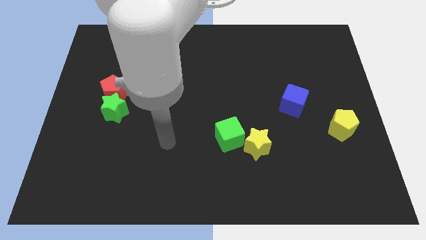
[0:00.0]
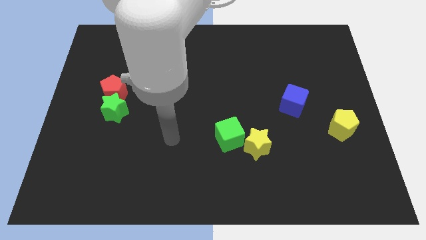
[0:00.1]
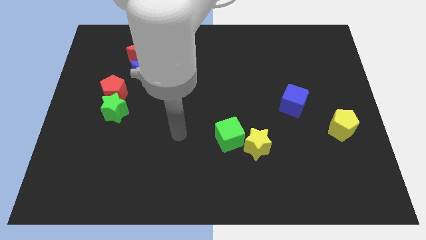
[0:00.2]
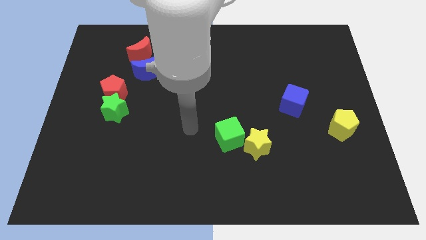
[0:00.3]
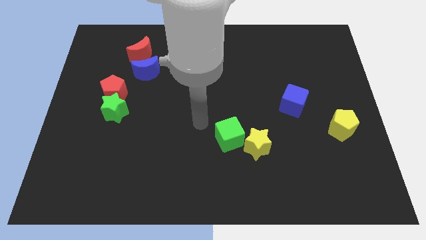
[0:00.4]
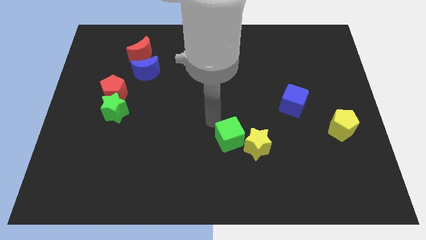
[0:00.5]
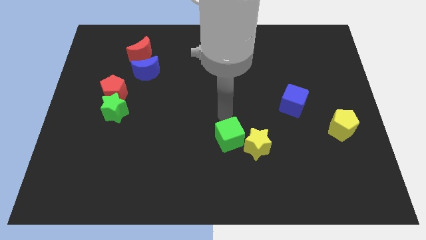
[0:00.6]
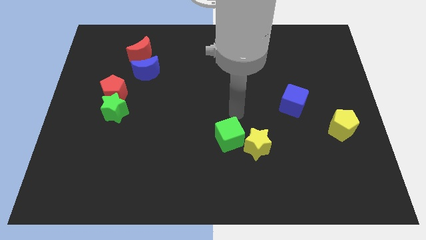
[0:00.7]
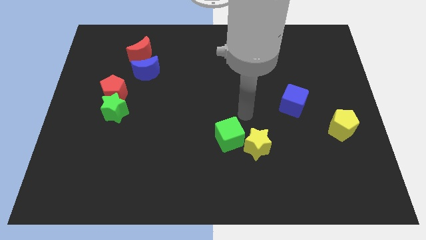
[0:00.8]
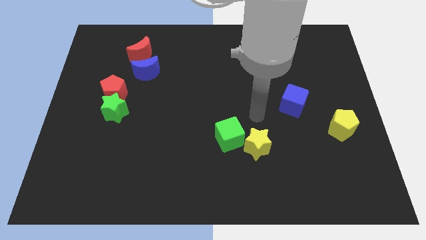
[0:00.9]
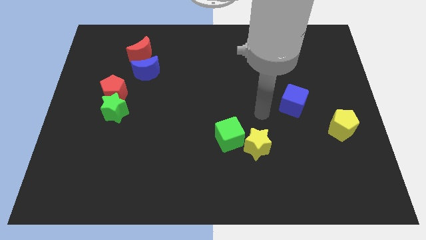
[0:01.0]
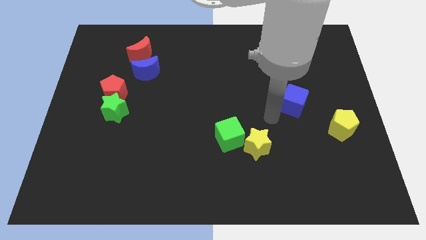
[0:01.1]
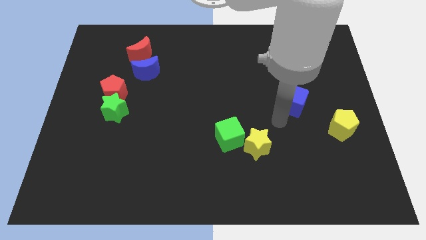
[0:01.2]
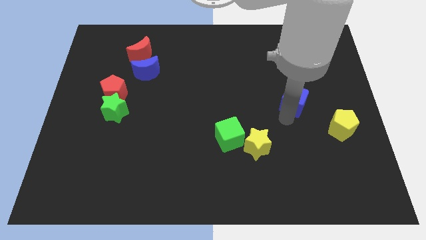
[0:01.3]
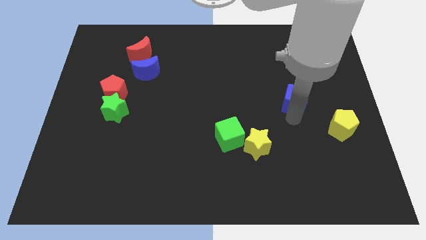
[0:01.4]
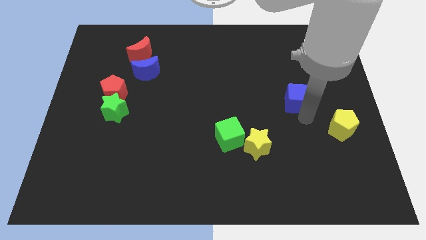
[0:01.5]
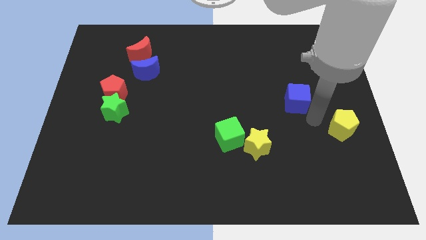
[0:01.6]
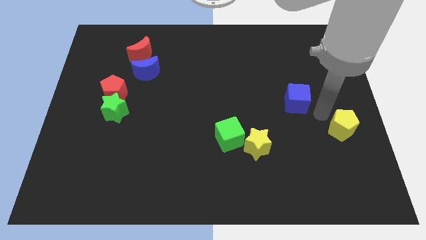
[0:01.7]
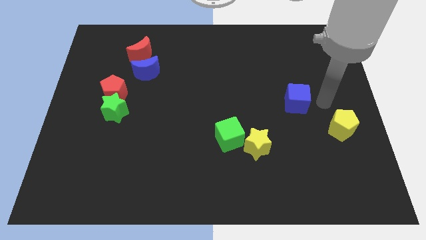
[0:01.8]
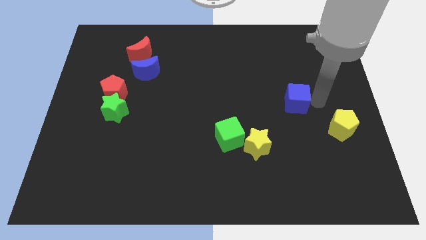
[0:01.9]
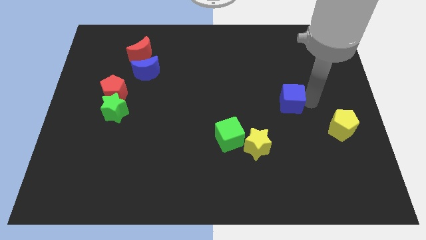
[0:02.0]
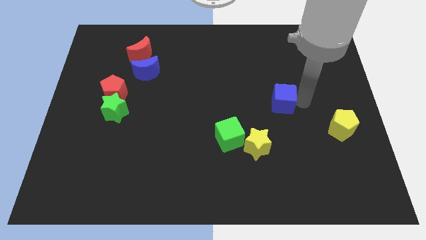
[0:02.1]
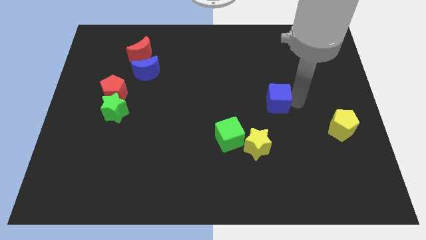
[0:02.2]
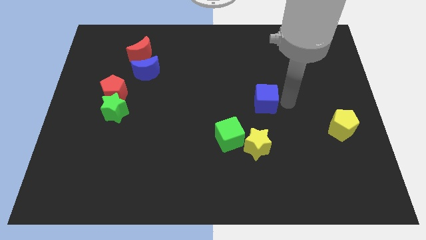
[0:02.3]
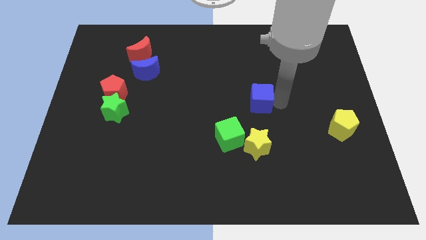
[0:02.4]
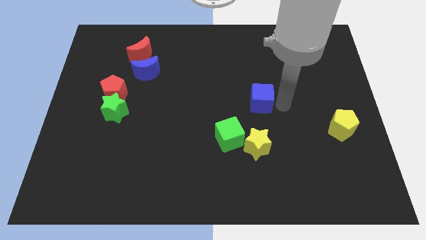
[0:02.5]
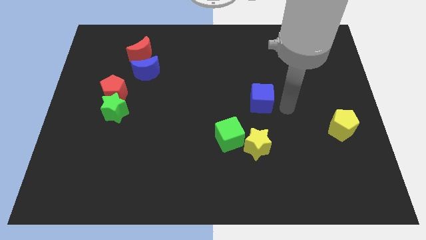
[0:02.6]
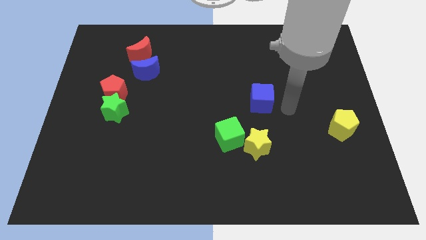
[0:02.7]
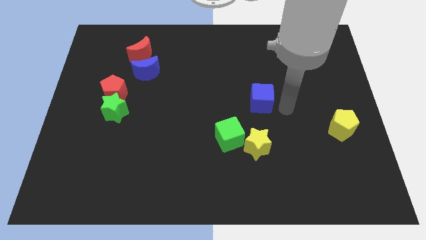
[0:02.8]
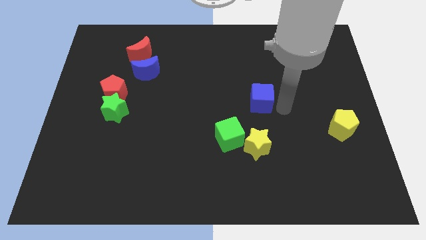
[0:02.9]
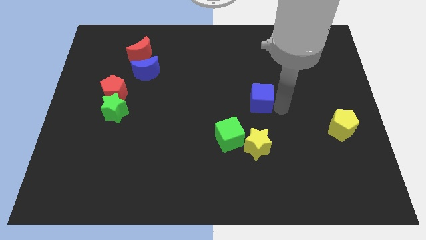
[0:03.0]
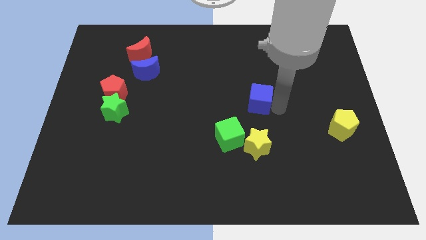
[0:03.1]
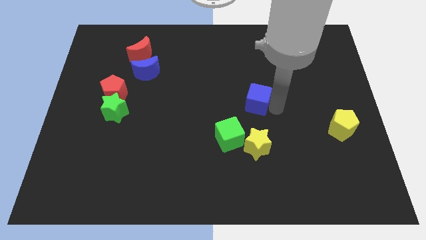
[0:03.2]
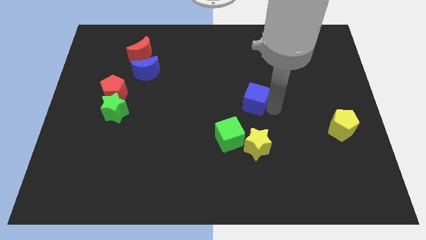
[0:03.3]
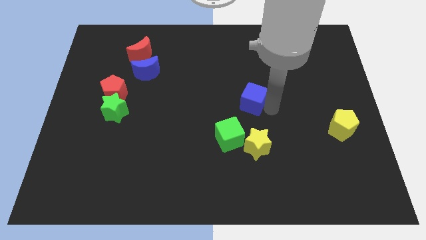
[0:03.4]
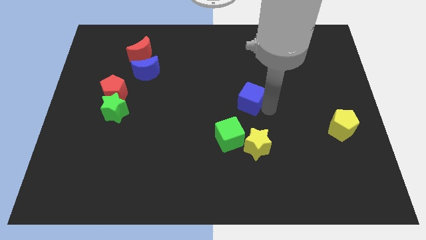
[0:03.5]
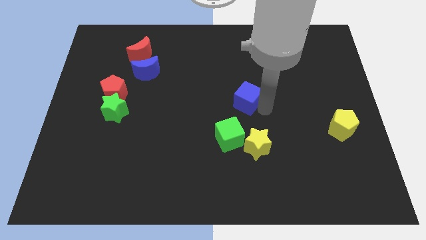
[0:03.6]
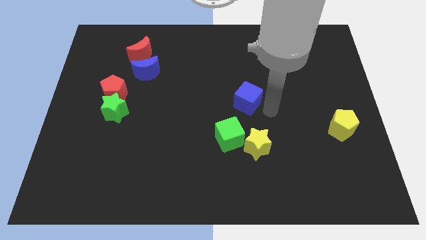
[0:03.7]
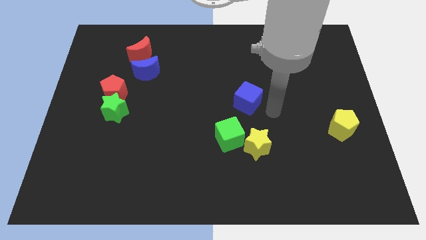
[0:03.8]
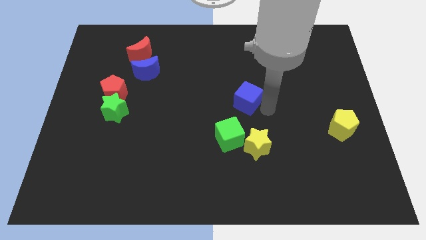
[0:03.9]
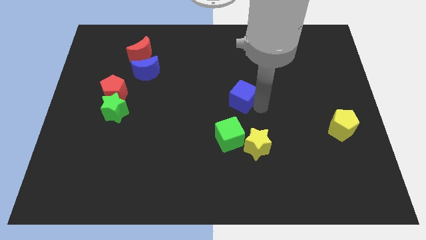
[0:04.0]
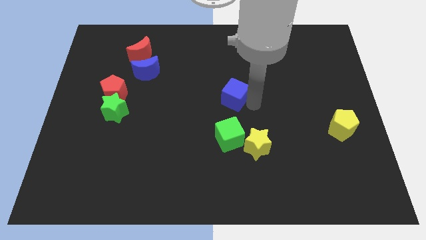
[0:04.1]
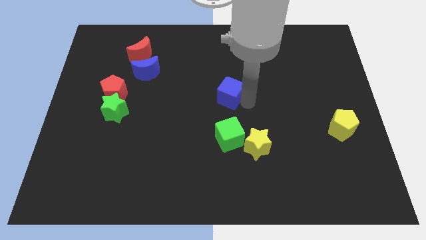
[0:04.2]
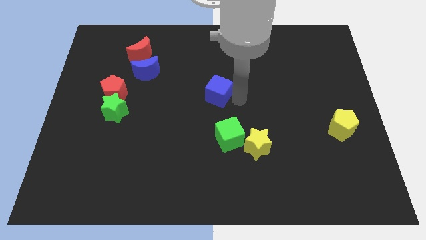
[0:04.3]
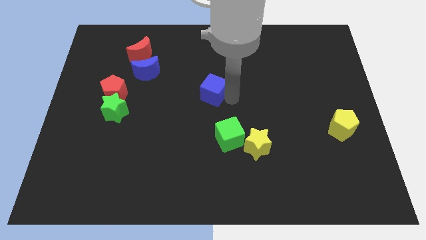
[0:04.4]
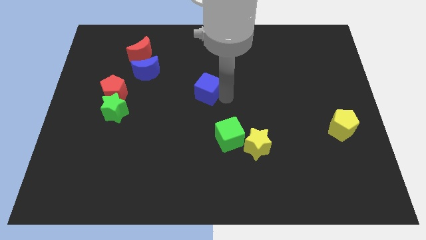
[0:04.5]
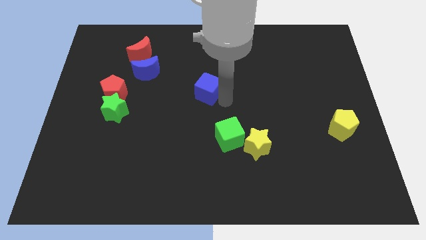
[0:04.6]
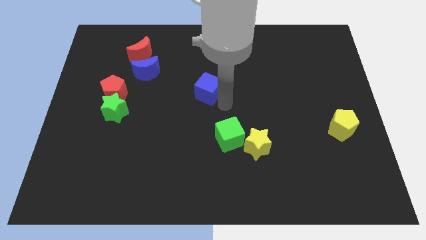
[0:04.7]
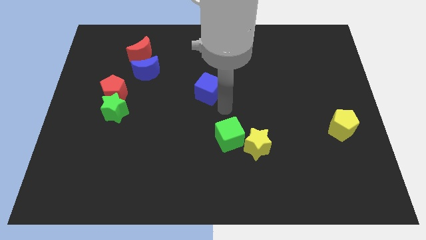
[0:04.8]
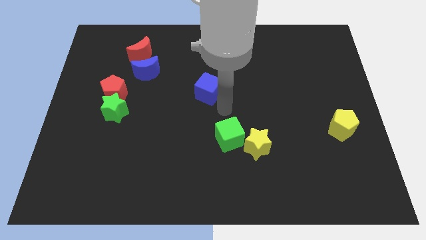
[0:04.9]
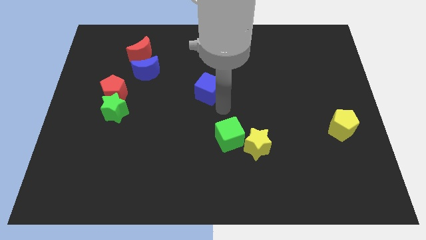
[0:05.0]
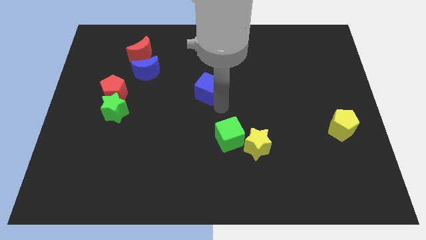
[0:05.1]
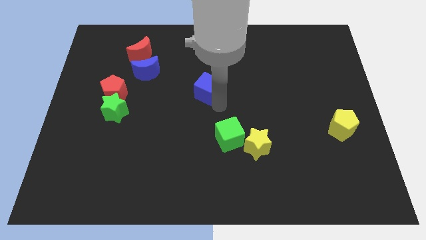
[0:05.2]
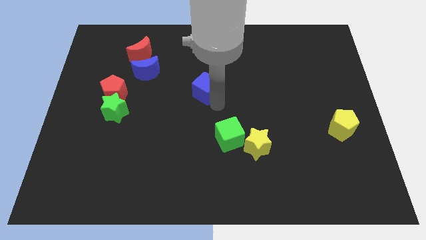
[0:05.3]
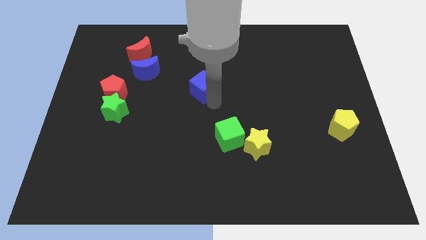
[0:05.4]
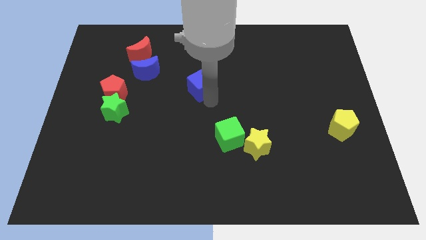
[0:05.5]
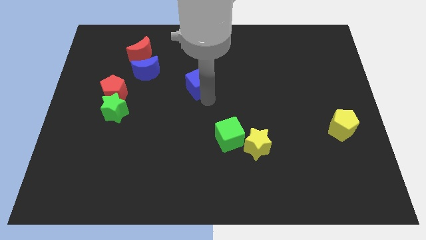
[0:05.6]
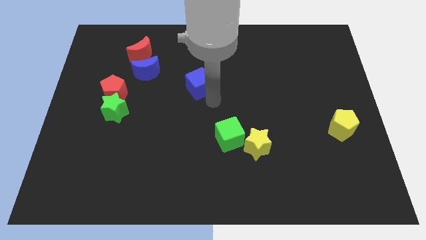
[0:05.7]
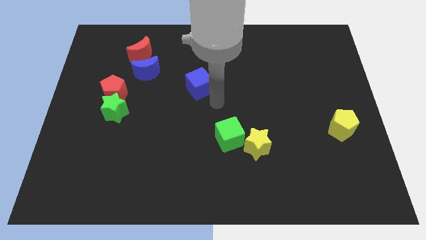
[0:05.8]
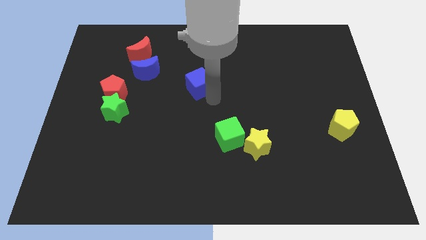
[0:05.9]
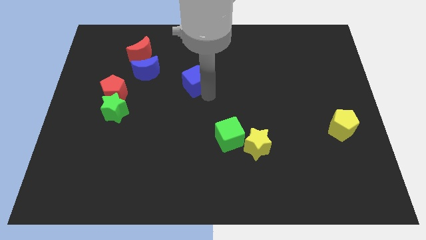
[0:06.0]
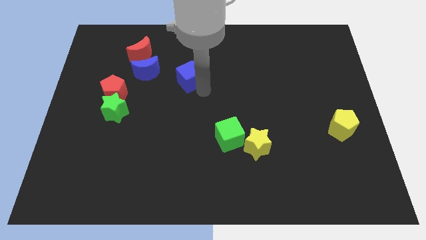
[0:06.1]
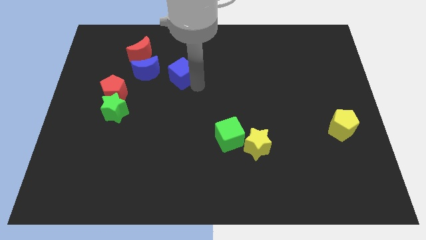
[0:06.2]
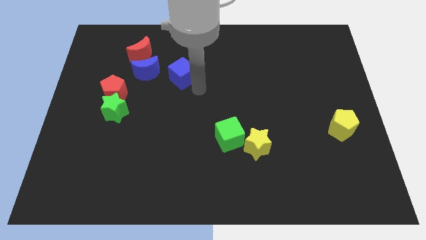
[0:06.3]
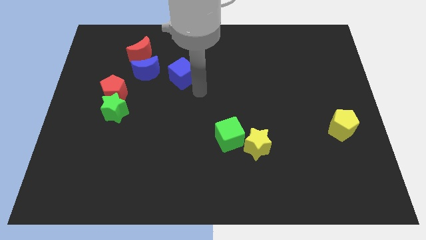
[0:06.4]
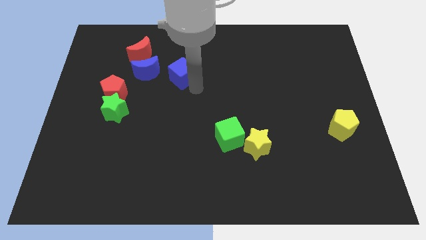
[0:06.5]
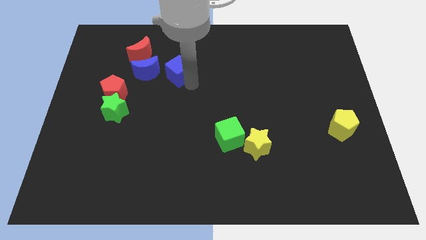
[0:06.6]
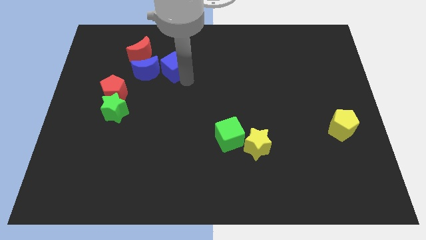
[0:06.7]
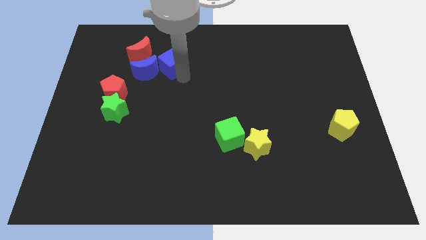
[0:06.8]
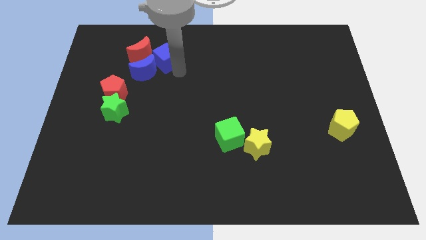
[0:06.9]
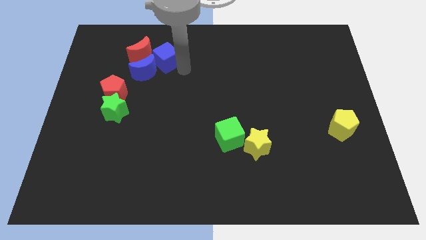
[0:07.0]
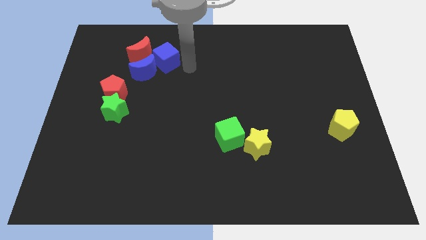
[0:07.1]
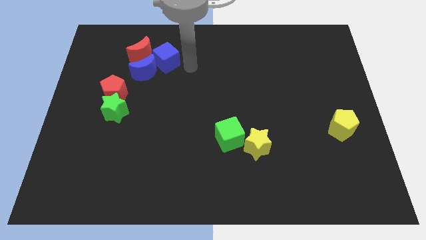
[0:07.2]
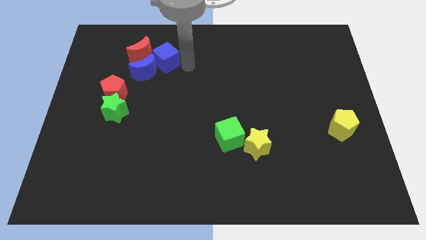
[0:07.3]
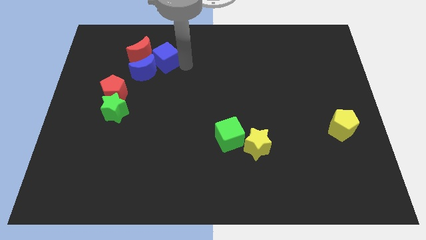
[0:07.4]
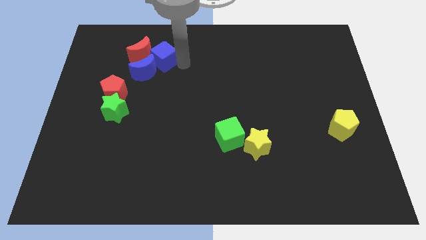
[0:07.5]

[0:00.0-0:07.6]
push the blue cube to the red moon
